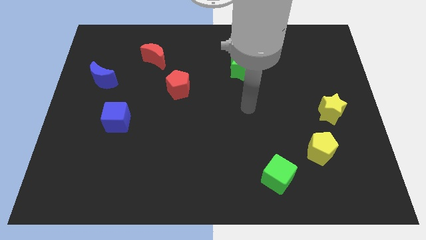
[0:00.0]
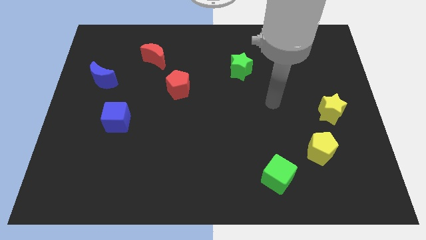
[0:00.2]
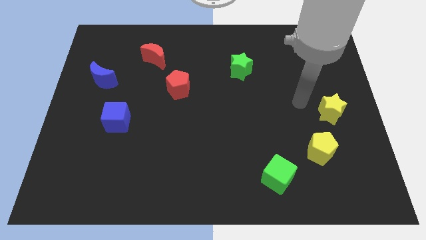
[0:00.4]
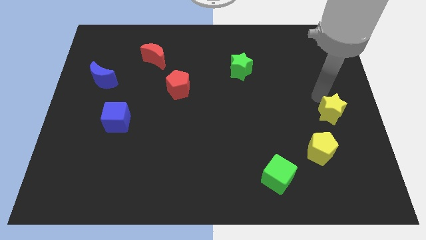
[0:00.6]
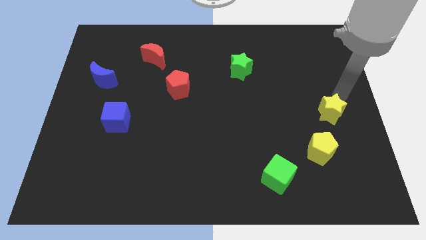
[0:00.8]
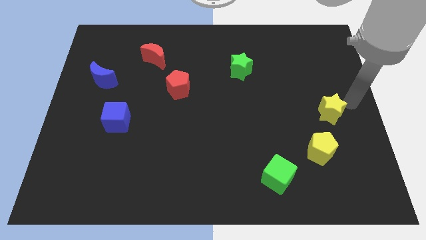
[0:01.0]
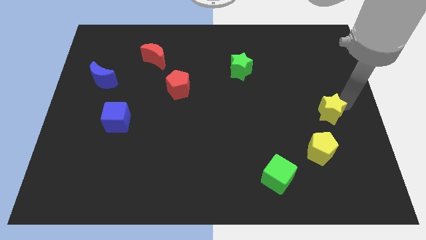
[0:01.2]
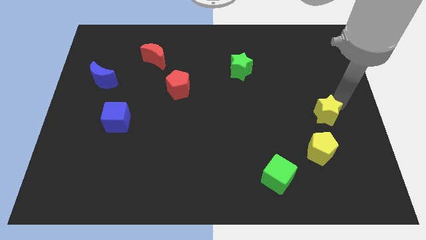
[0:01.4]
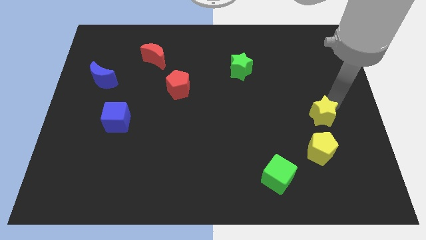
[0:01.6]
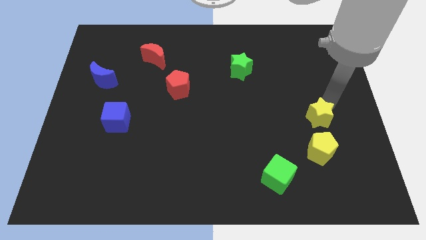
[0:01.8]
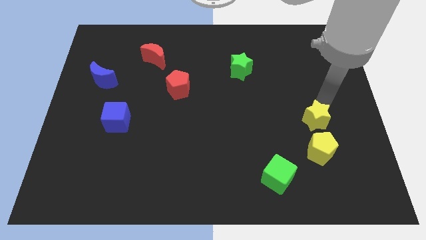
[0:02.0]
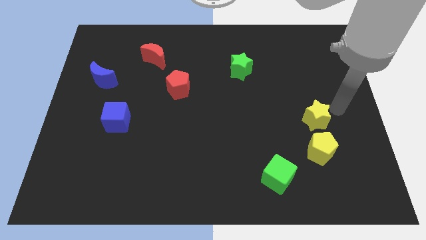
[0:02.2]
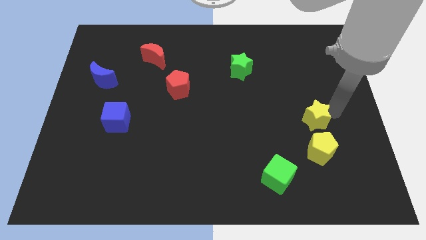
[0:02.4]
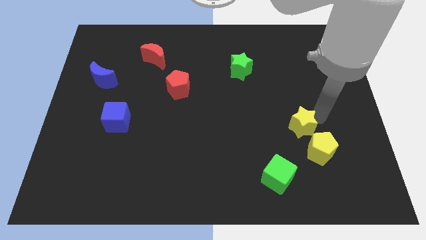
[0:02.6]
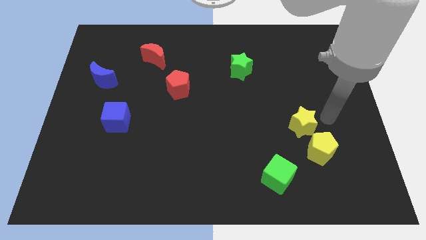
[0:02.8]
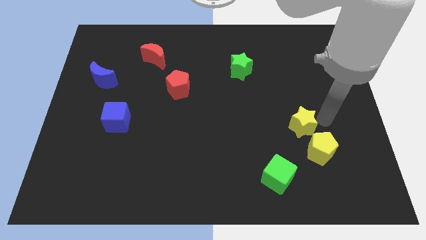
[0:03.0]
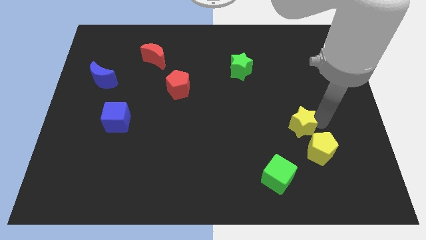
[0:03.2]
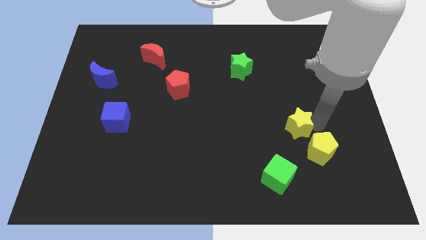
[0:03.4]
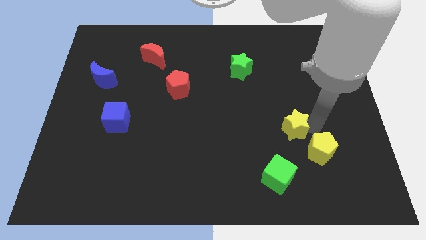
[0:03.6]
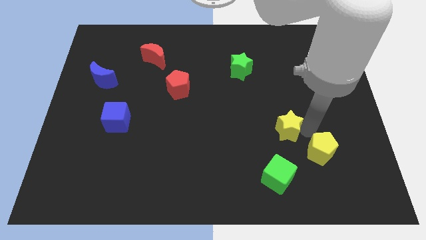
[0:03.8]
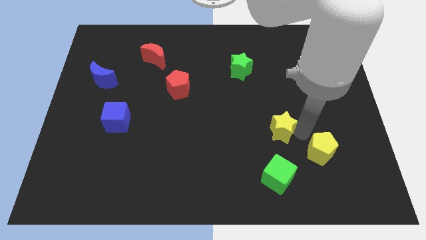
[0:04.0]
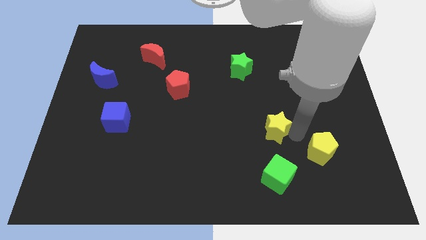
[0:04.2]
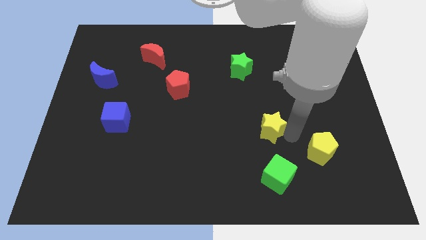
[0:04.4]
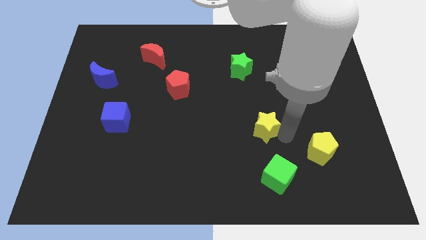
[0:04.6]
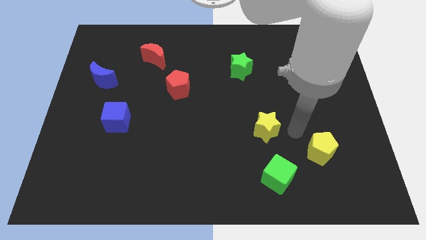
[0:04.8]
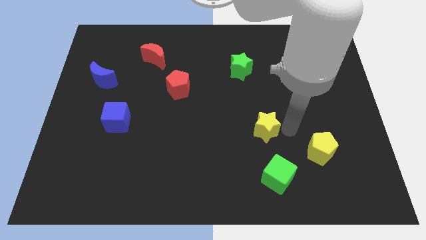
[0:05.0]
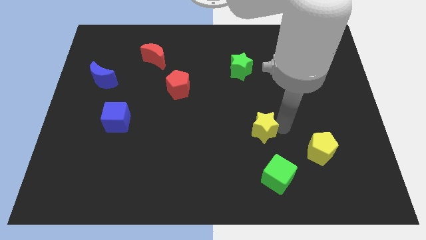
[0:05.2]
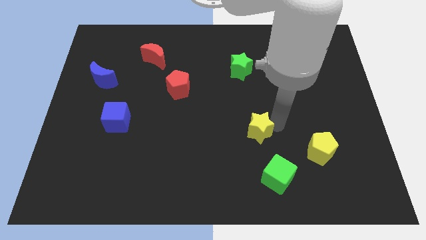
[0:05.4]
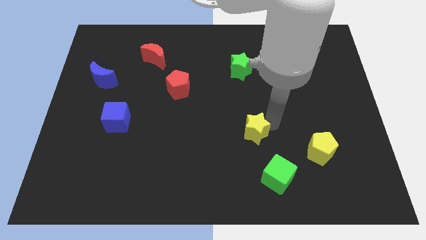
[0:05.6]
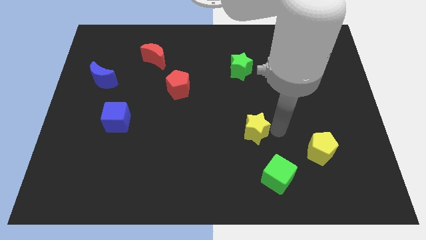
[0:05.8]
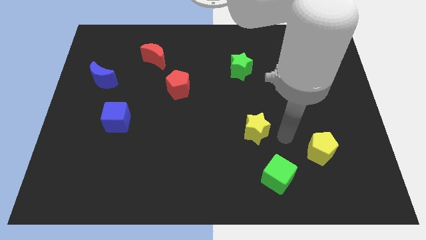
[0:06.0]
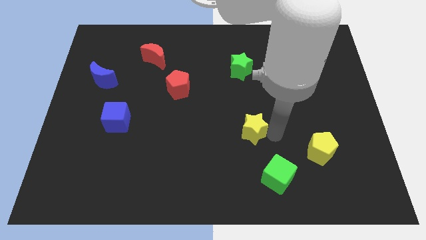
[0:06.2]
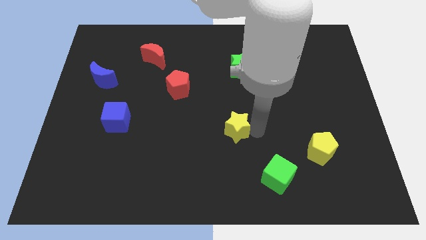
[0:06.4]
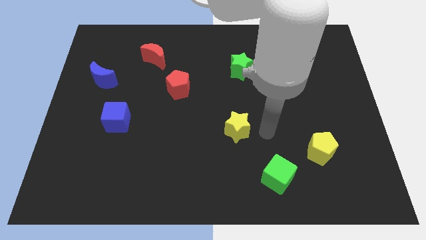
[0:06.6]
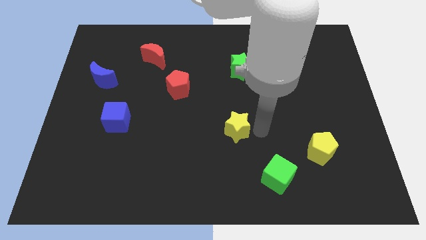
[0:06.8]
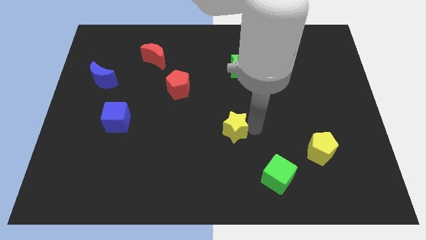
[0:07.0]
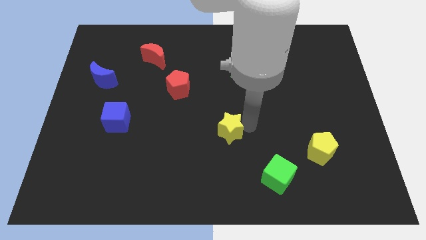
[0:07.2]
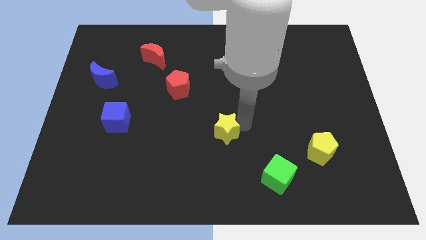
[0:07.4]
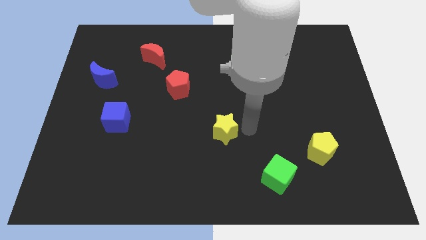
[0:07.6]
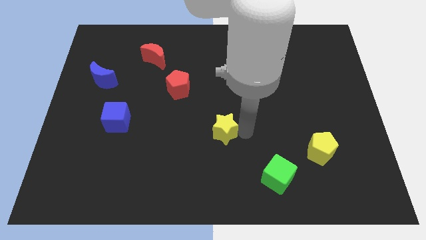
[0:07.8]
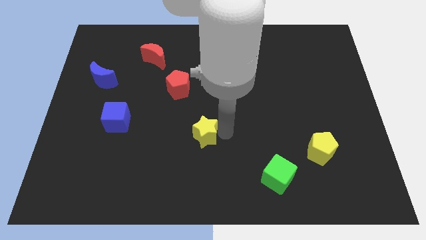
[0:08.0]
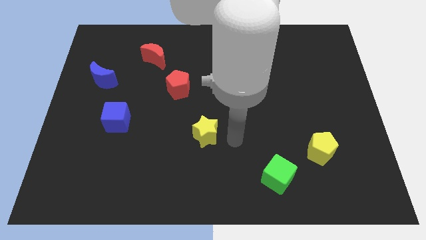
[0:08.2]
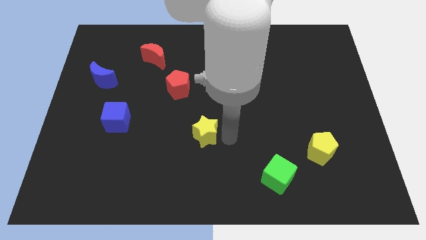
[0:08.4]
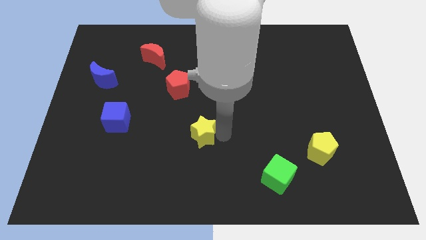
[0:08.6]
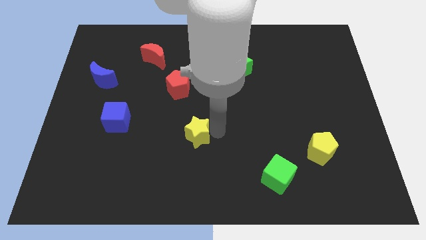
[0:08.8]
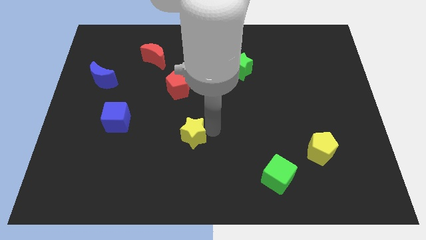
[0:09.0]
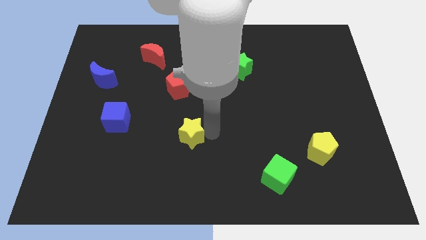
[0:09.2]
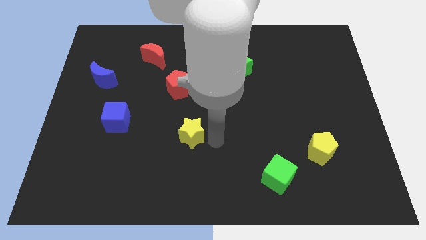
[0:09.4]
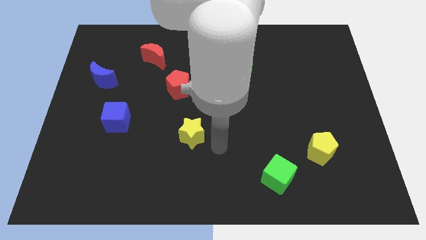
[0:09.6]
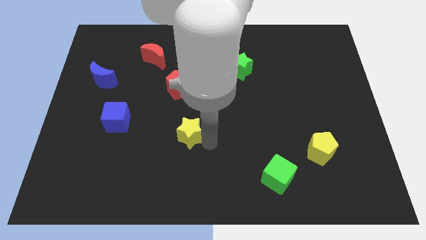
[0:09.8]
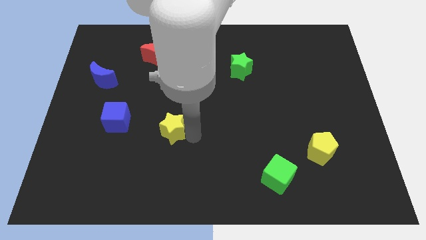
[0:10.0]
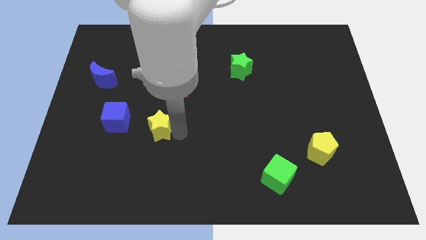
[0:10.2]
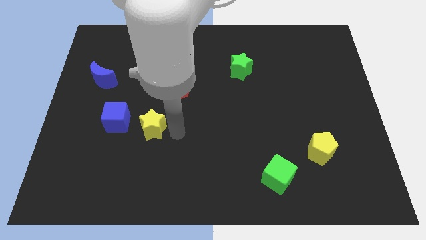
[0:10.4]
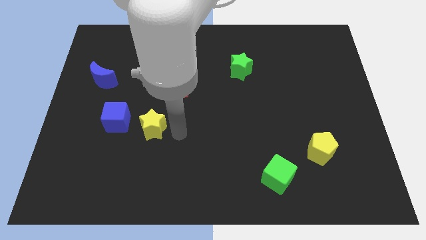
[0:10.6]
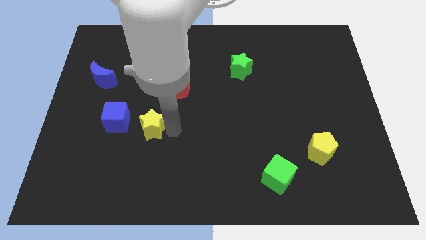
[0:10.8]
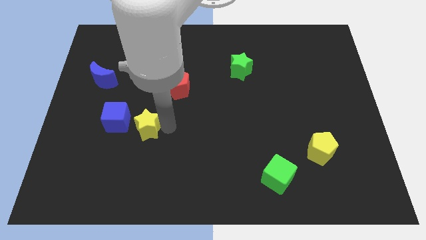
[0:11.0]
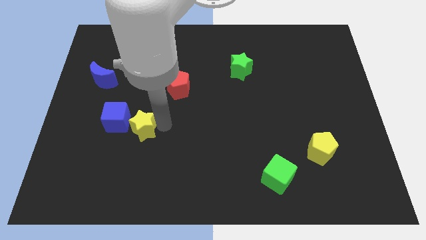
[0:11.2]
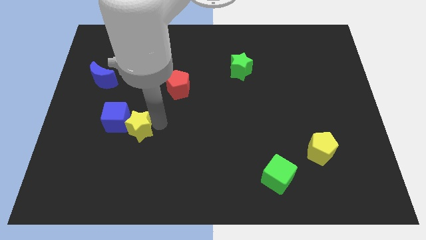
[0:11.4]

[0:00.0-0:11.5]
push the yellow star close to the blue cube

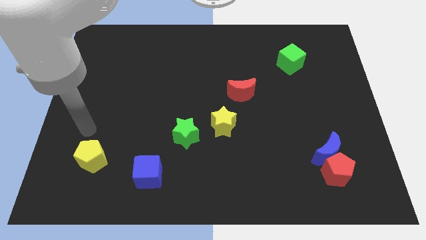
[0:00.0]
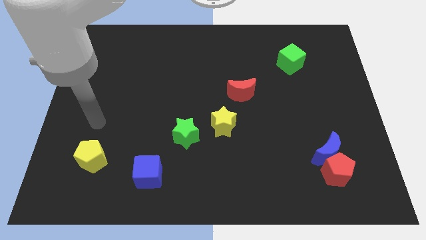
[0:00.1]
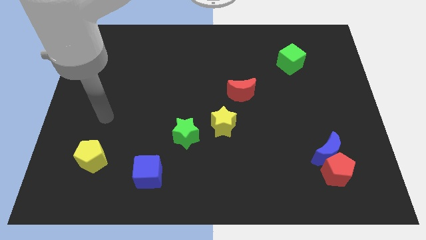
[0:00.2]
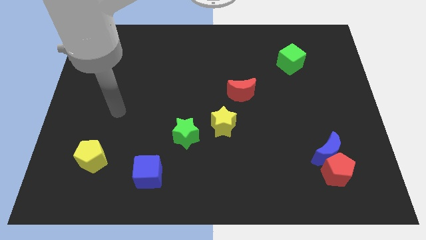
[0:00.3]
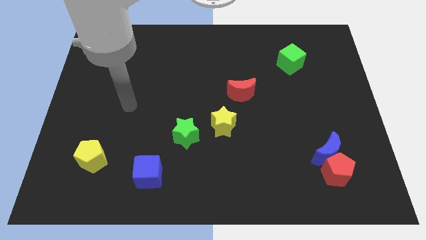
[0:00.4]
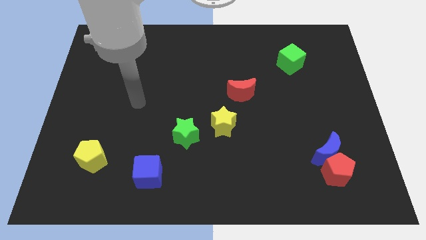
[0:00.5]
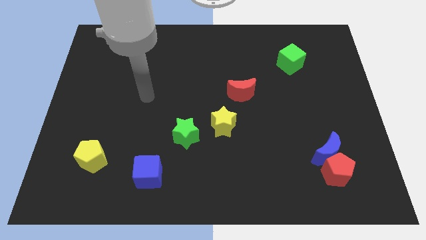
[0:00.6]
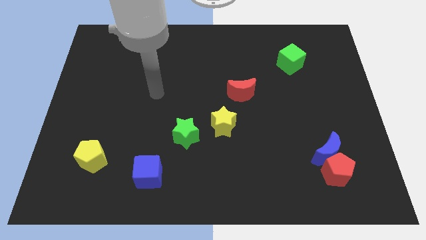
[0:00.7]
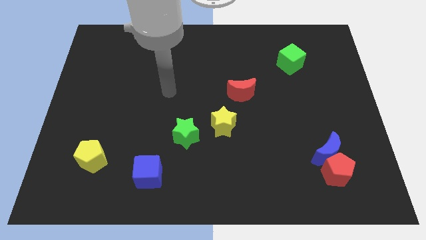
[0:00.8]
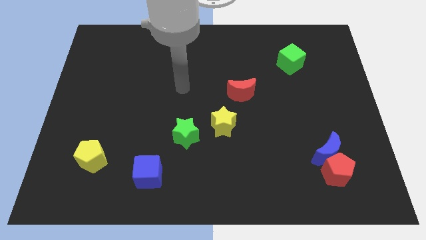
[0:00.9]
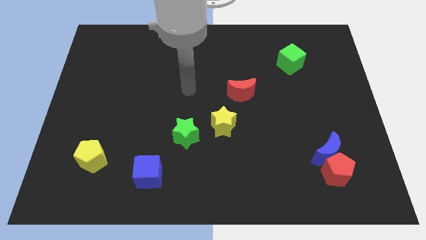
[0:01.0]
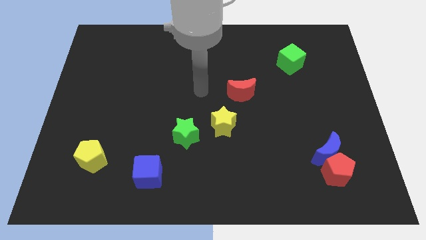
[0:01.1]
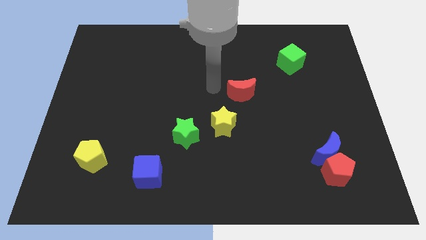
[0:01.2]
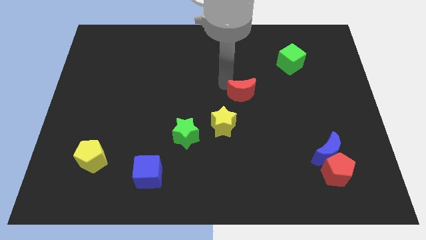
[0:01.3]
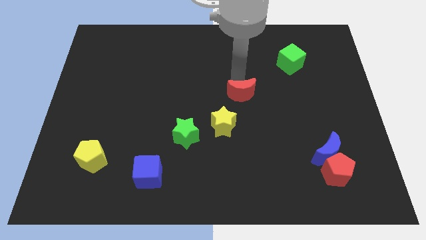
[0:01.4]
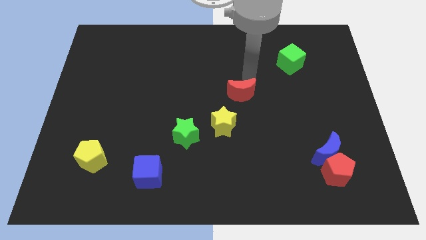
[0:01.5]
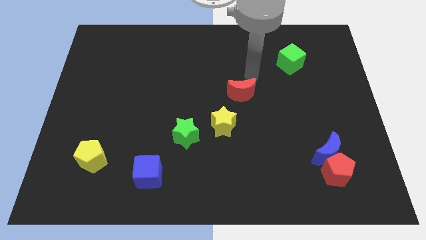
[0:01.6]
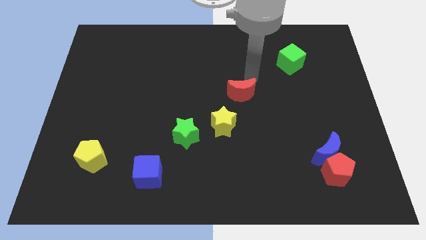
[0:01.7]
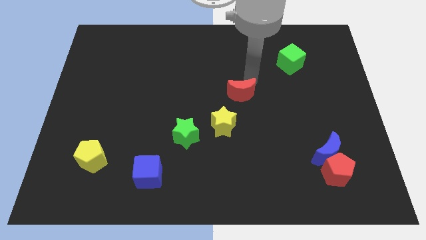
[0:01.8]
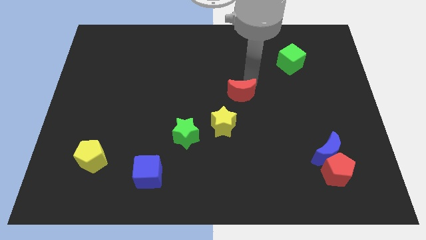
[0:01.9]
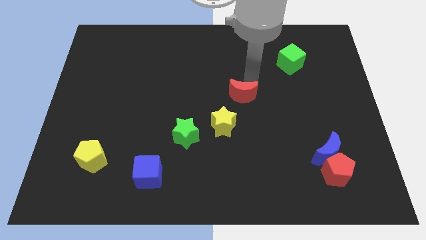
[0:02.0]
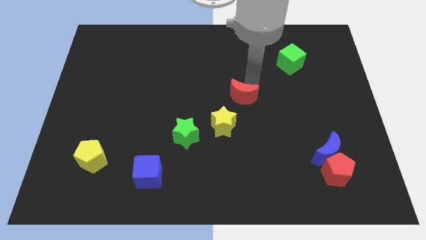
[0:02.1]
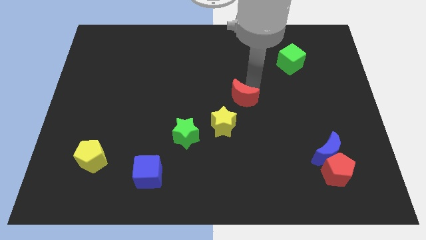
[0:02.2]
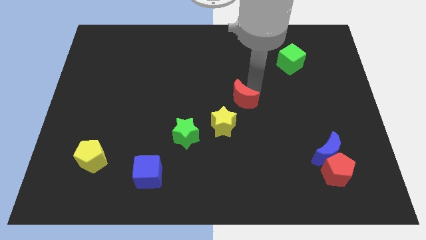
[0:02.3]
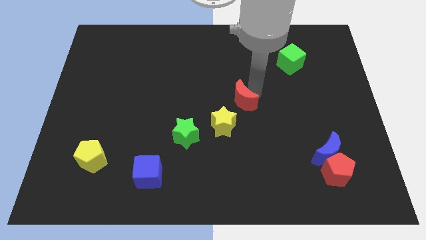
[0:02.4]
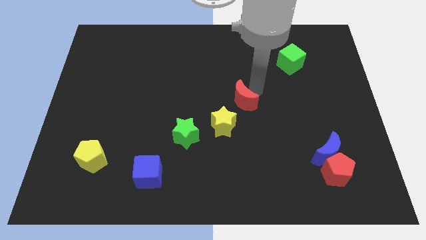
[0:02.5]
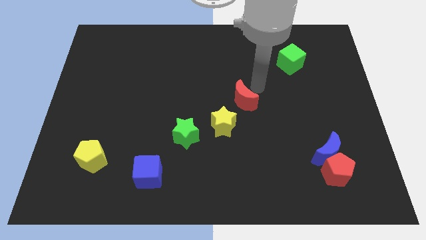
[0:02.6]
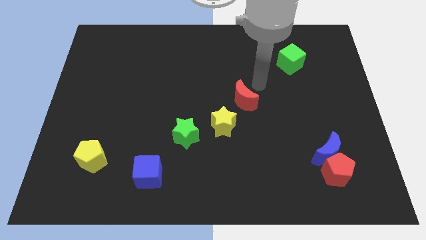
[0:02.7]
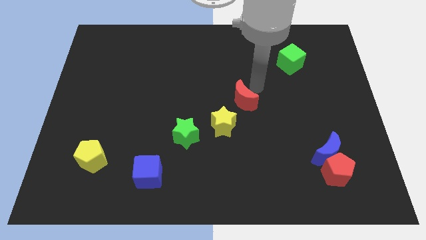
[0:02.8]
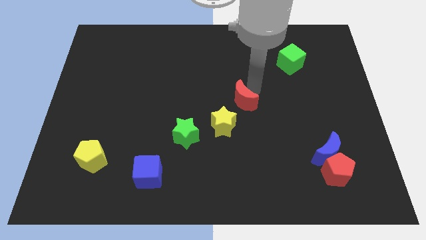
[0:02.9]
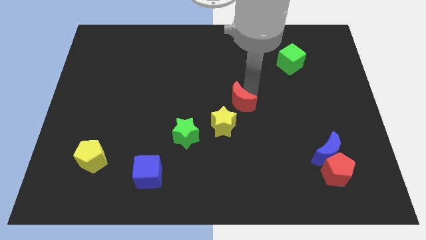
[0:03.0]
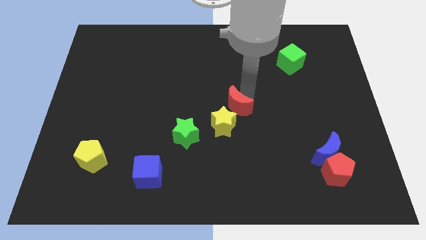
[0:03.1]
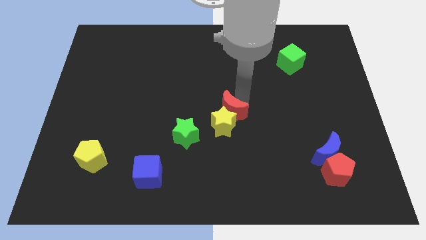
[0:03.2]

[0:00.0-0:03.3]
slide the red moon to the yellow star
